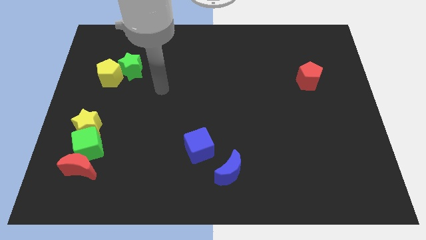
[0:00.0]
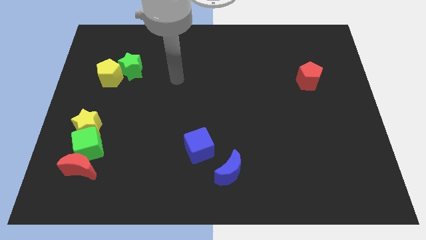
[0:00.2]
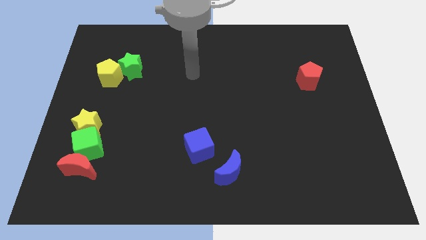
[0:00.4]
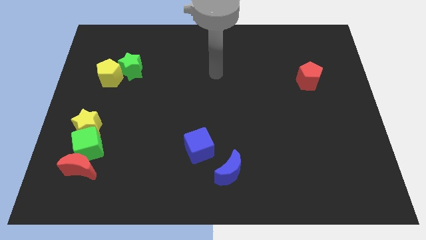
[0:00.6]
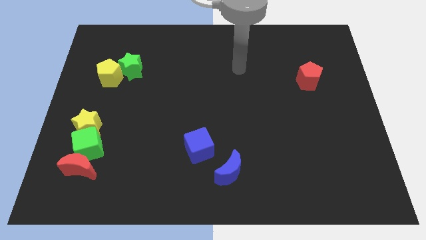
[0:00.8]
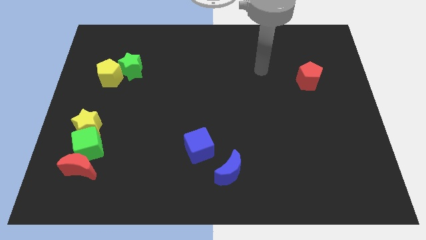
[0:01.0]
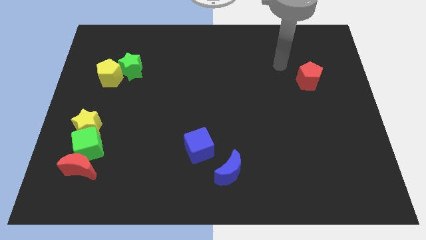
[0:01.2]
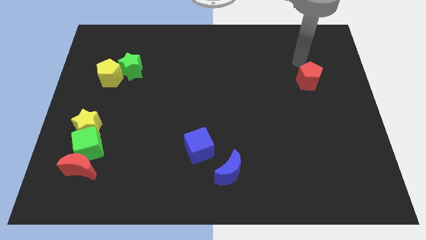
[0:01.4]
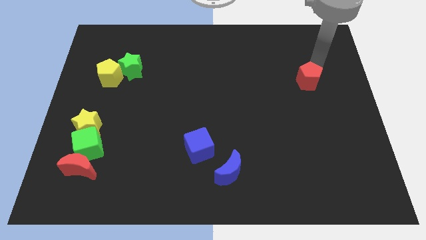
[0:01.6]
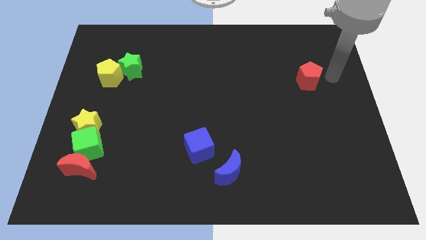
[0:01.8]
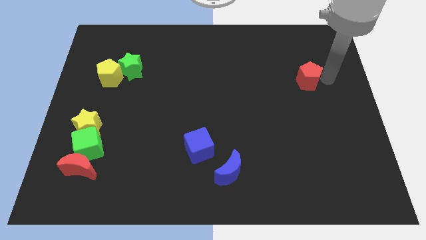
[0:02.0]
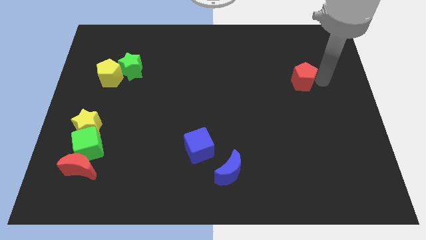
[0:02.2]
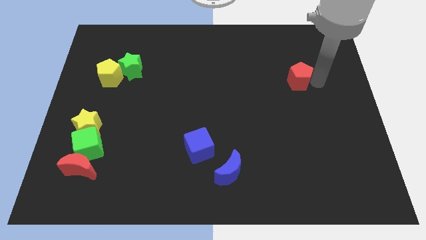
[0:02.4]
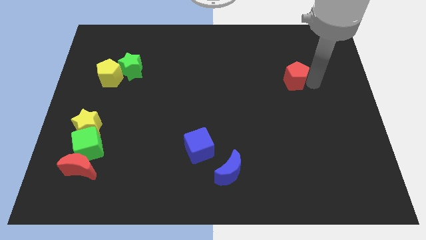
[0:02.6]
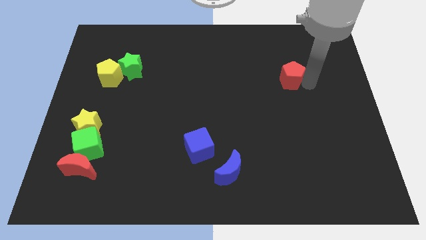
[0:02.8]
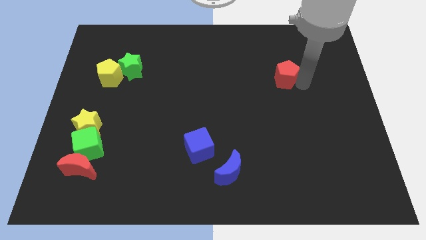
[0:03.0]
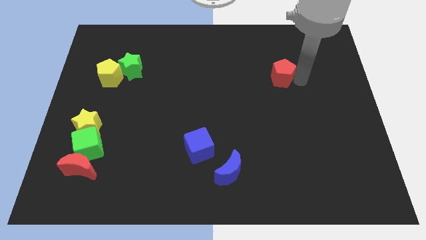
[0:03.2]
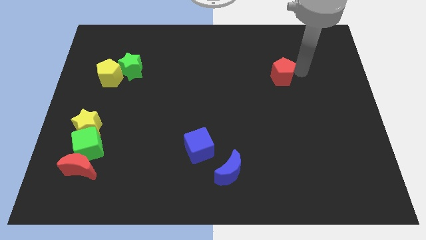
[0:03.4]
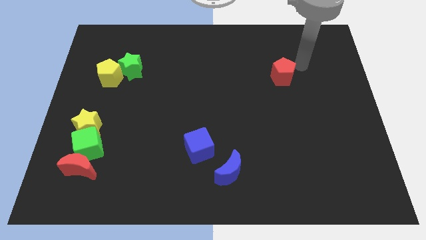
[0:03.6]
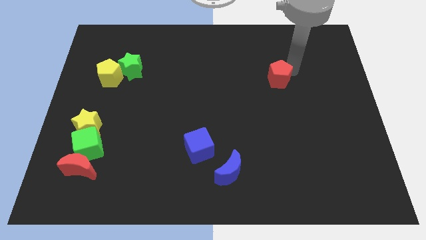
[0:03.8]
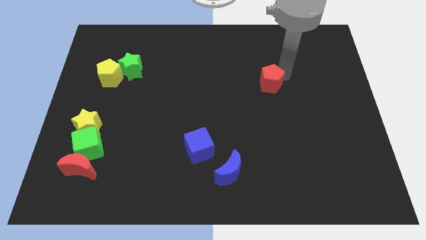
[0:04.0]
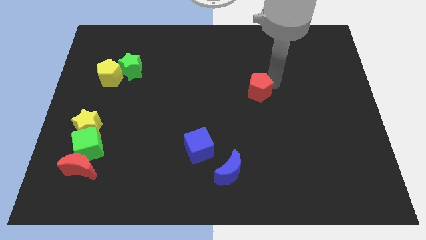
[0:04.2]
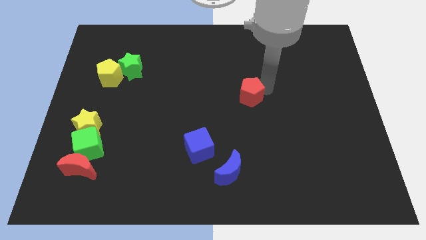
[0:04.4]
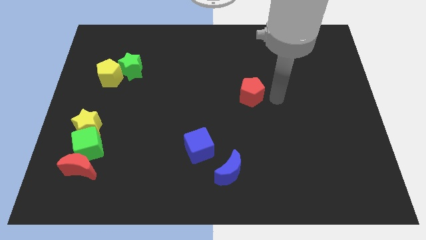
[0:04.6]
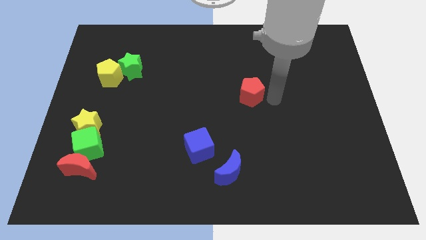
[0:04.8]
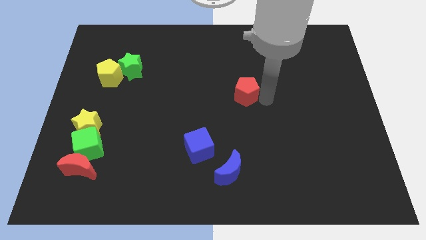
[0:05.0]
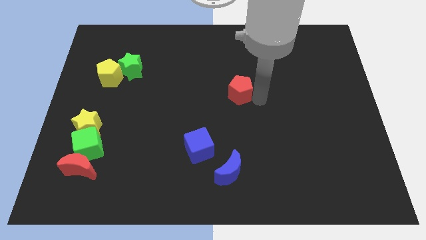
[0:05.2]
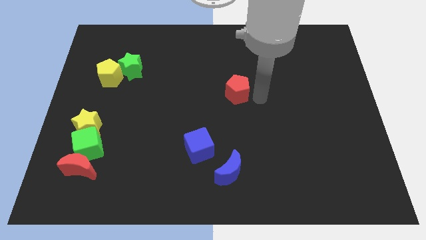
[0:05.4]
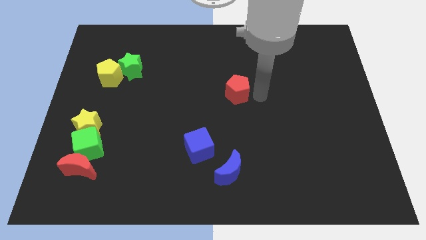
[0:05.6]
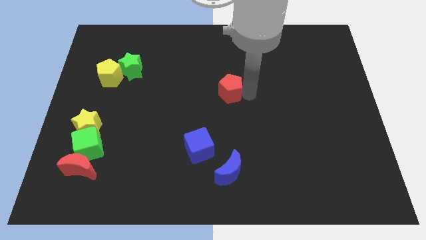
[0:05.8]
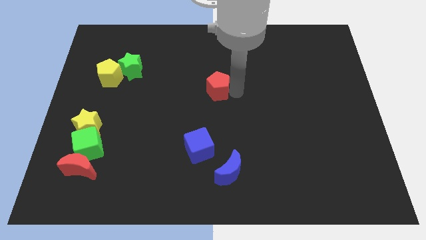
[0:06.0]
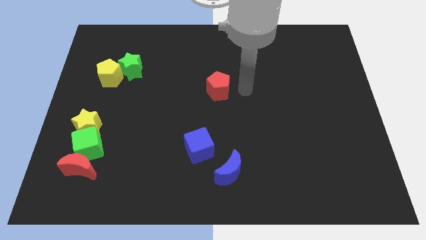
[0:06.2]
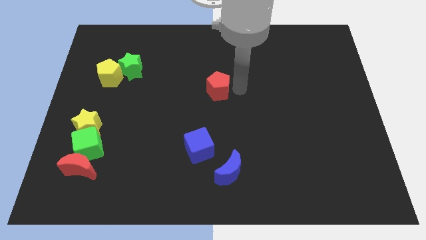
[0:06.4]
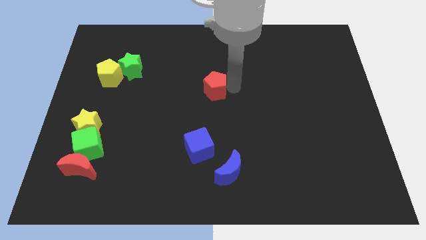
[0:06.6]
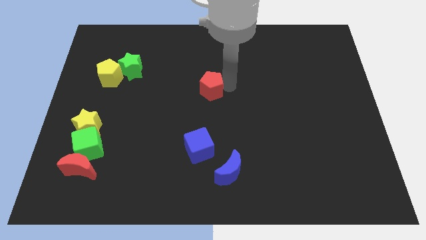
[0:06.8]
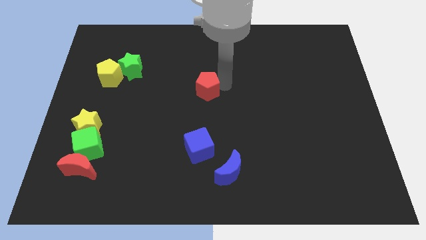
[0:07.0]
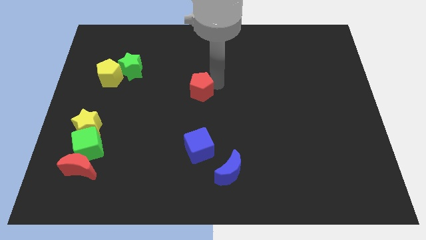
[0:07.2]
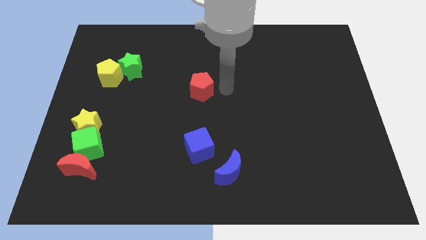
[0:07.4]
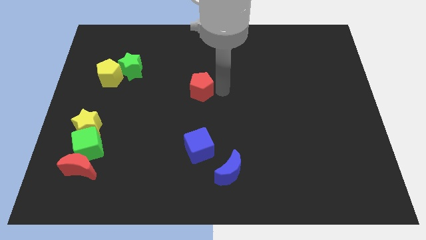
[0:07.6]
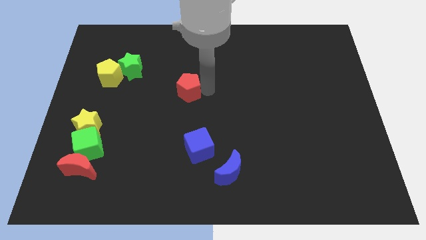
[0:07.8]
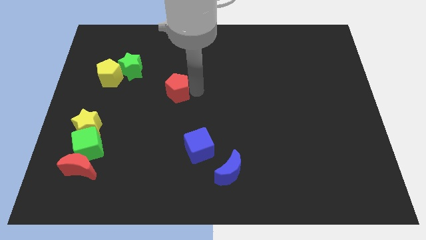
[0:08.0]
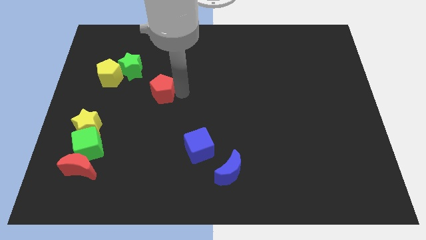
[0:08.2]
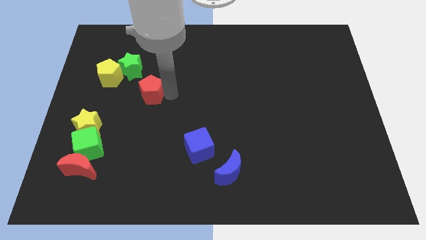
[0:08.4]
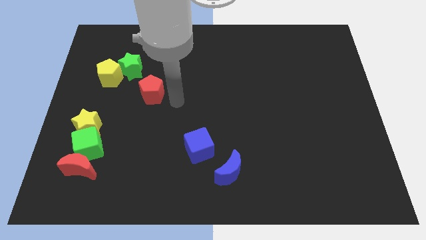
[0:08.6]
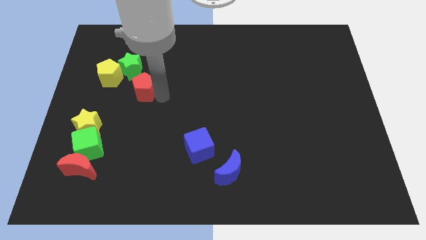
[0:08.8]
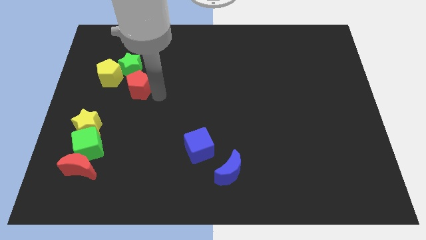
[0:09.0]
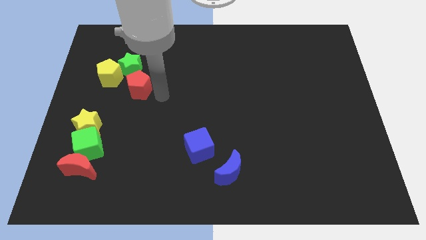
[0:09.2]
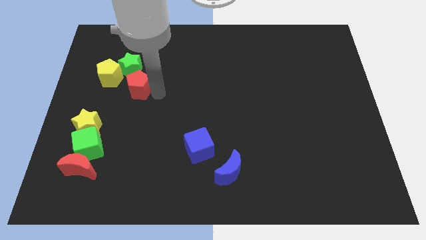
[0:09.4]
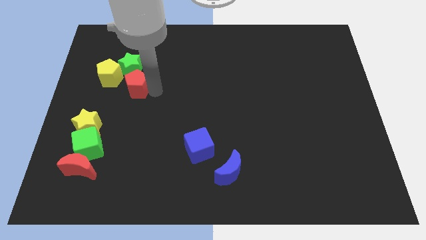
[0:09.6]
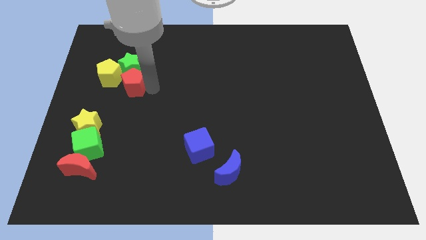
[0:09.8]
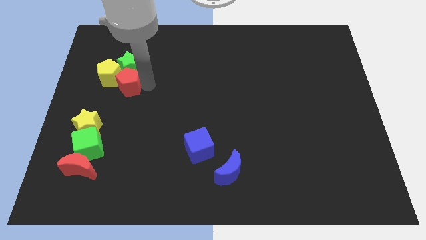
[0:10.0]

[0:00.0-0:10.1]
move the red pentagon towards the yellow pentagon

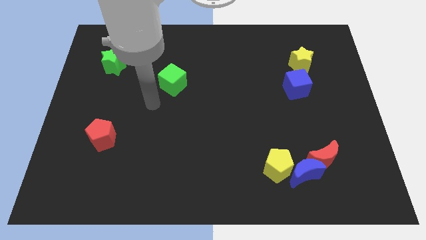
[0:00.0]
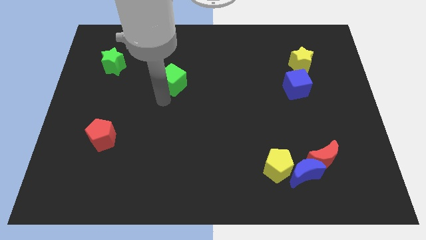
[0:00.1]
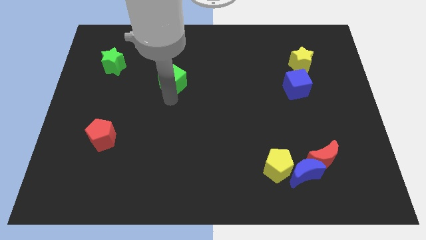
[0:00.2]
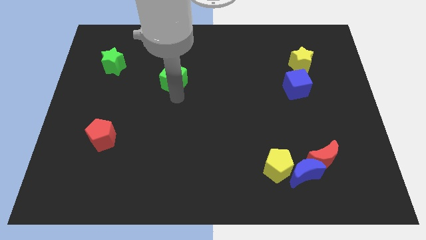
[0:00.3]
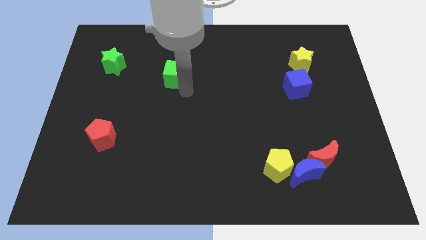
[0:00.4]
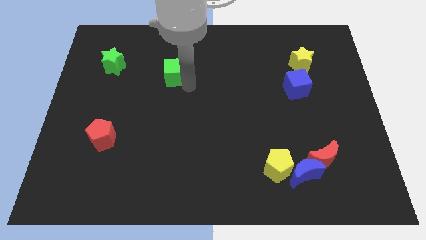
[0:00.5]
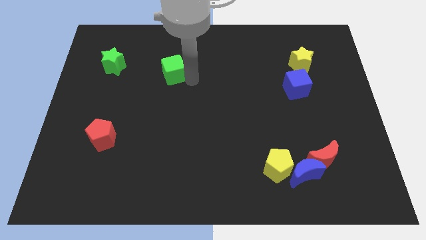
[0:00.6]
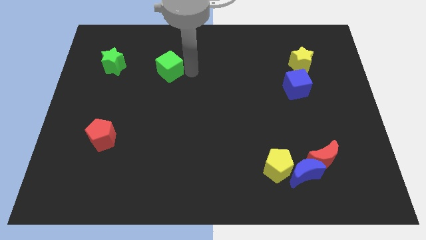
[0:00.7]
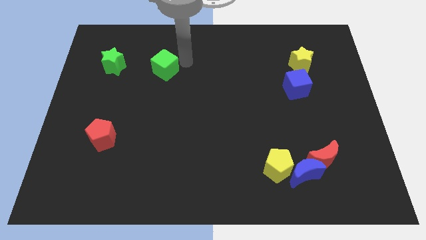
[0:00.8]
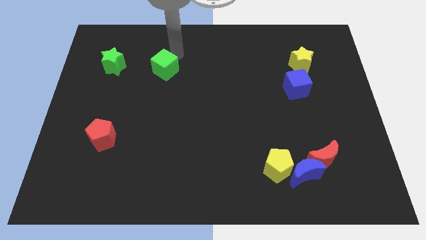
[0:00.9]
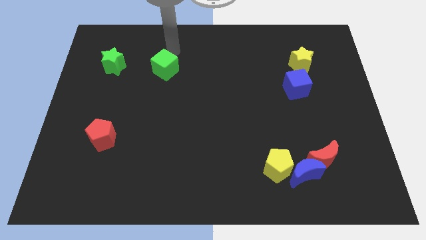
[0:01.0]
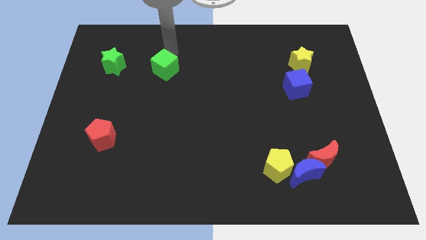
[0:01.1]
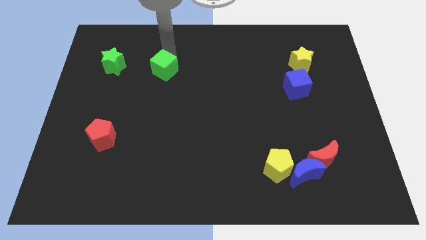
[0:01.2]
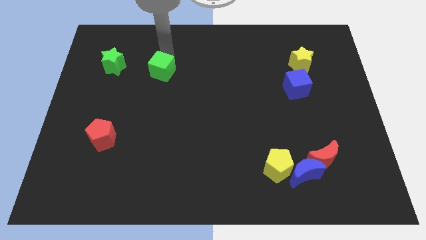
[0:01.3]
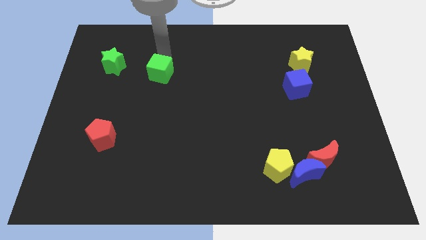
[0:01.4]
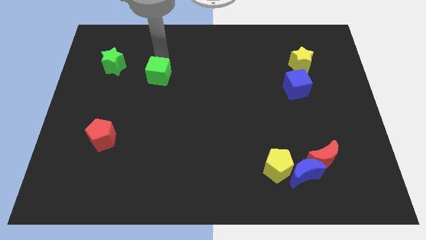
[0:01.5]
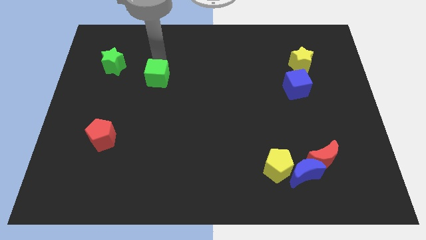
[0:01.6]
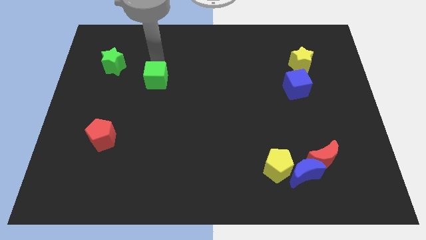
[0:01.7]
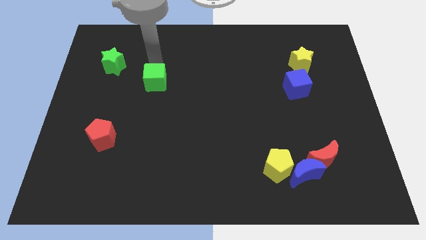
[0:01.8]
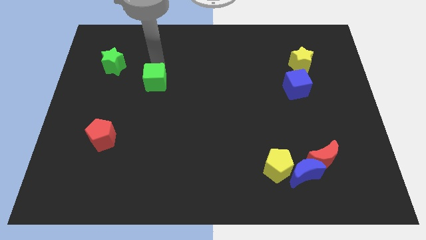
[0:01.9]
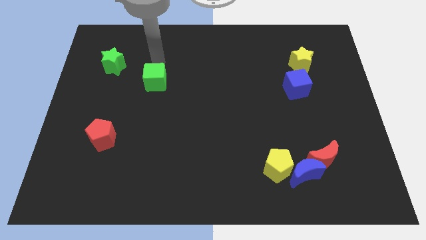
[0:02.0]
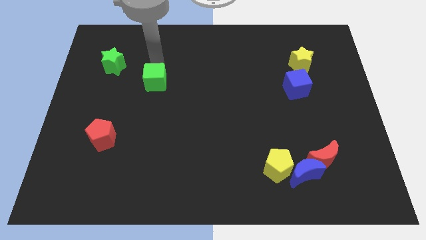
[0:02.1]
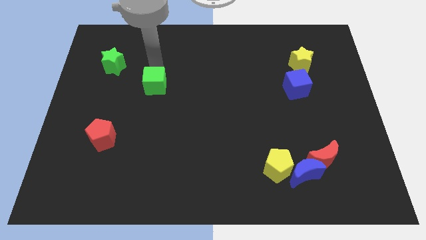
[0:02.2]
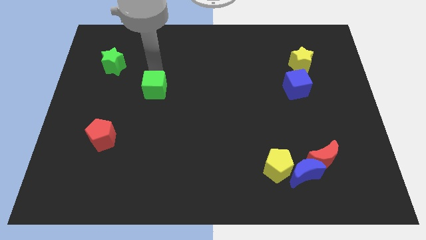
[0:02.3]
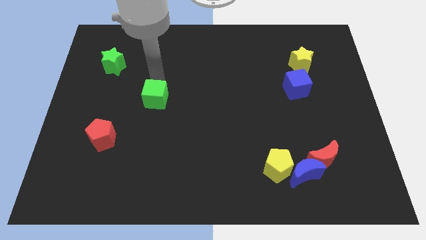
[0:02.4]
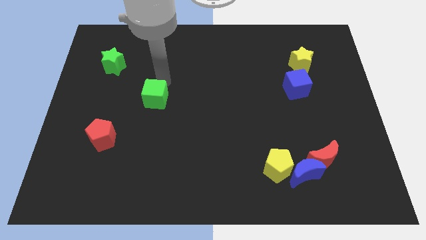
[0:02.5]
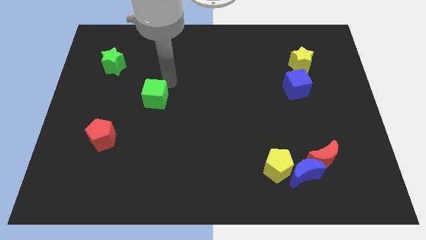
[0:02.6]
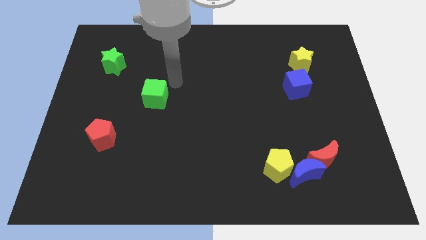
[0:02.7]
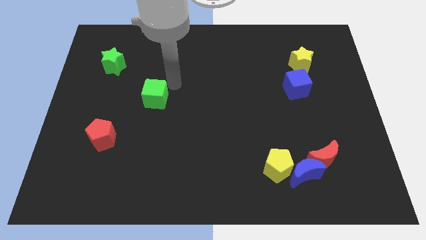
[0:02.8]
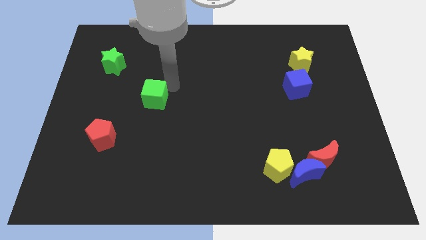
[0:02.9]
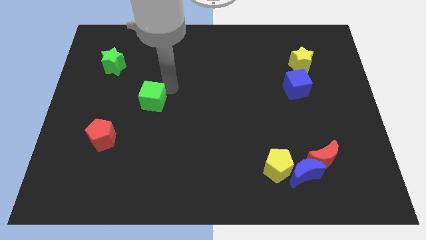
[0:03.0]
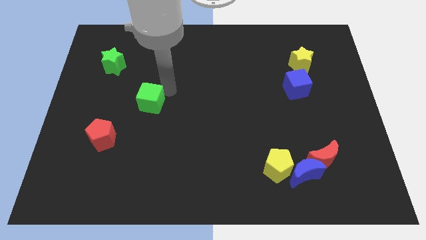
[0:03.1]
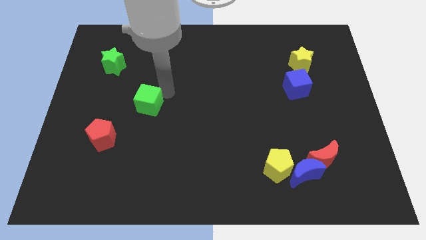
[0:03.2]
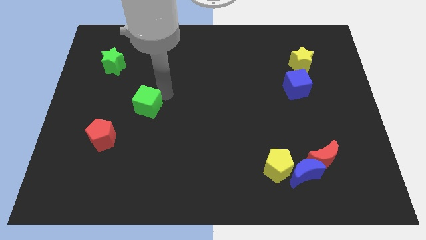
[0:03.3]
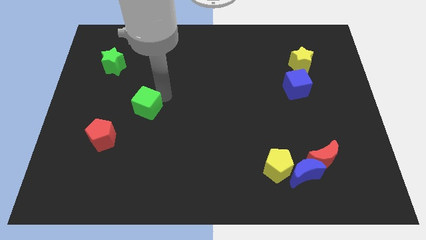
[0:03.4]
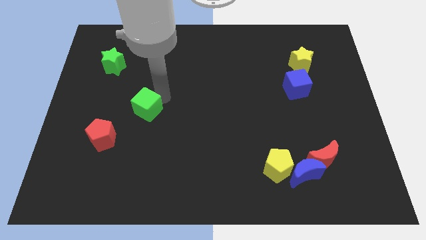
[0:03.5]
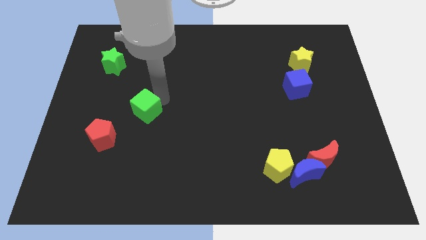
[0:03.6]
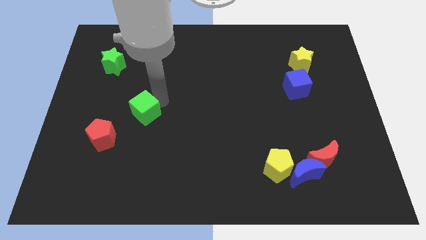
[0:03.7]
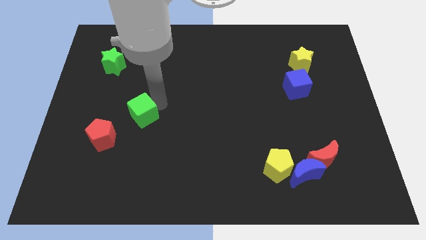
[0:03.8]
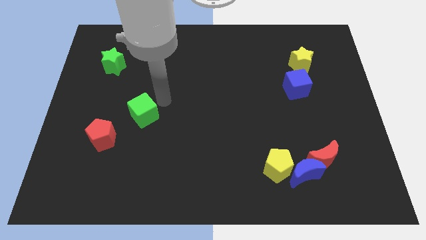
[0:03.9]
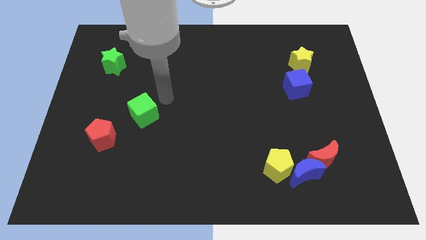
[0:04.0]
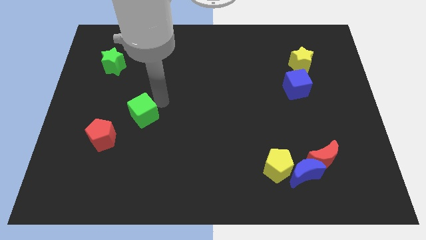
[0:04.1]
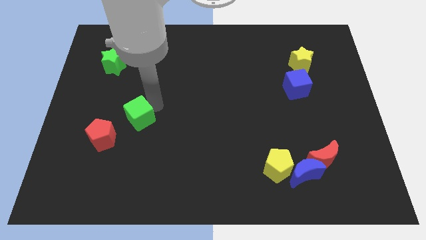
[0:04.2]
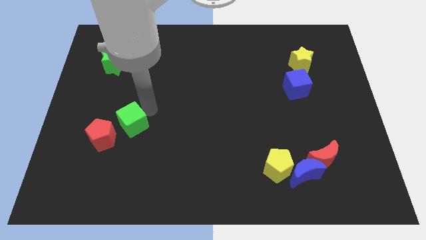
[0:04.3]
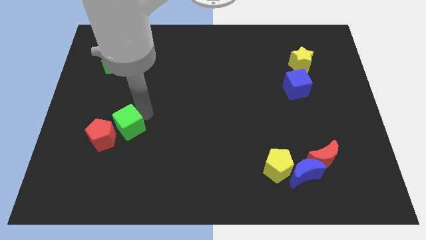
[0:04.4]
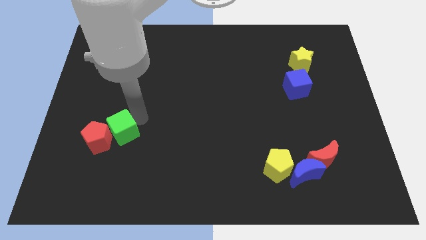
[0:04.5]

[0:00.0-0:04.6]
put the green cube next to the red pentagon
